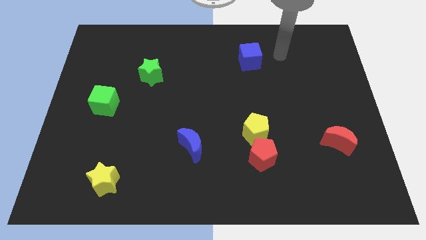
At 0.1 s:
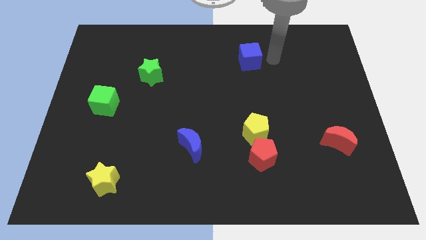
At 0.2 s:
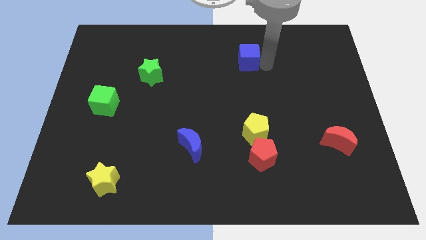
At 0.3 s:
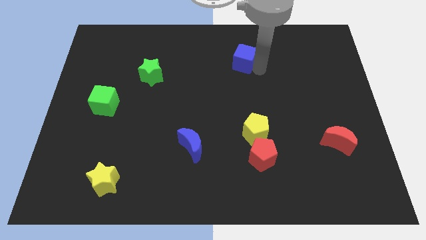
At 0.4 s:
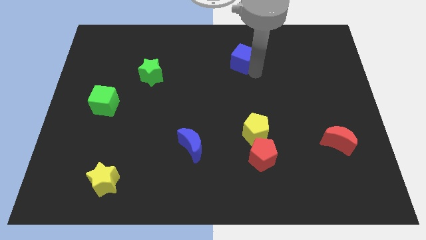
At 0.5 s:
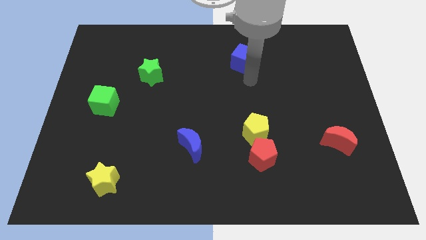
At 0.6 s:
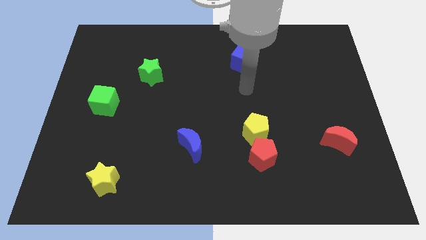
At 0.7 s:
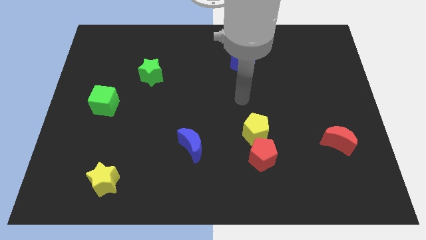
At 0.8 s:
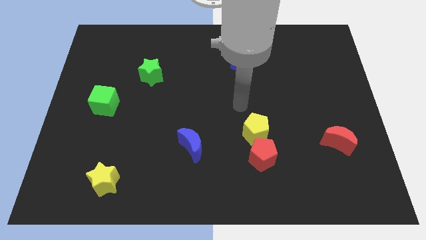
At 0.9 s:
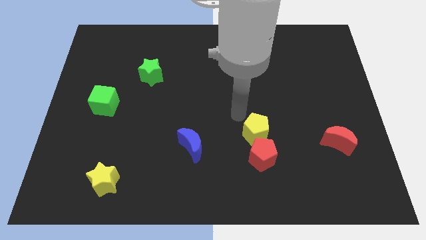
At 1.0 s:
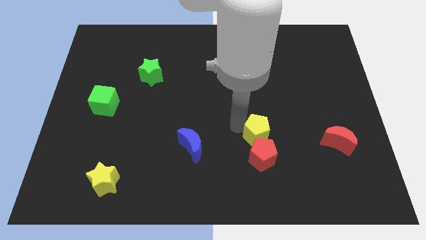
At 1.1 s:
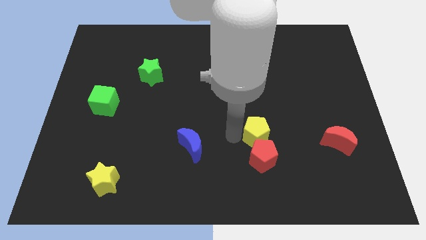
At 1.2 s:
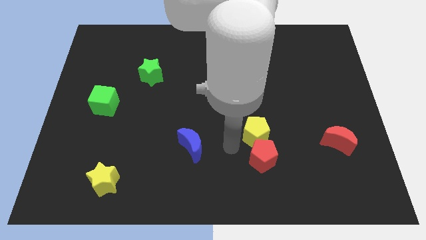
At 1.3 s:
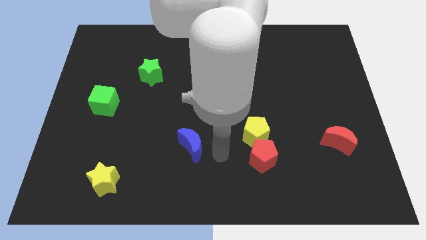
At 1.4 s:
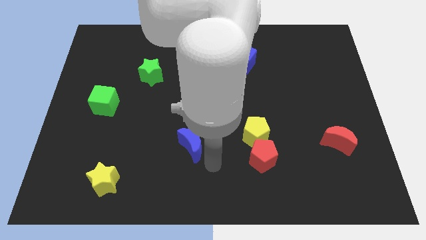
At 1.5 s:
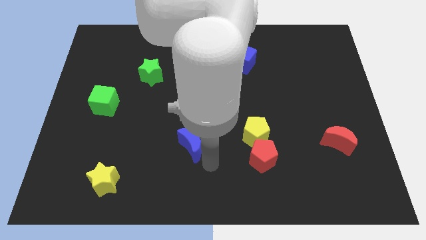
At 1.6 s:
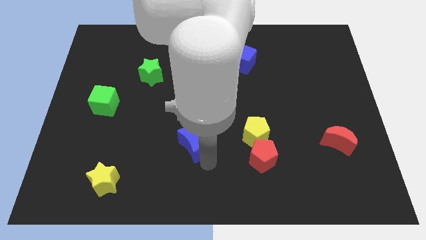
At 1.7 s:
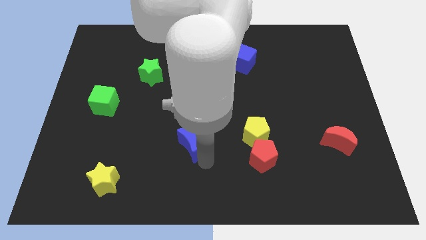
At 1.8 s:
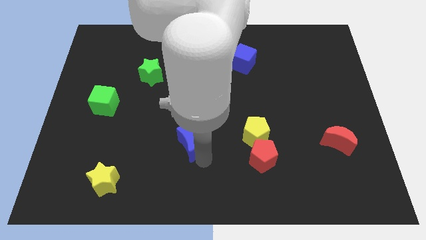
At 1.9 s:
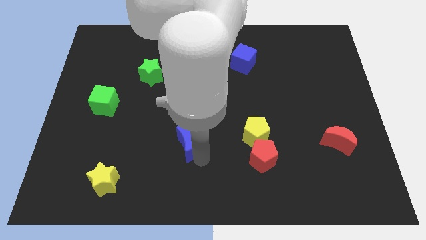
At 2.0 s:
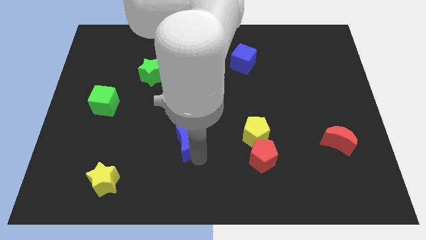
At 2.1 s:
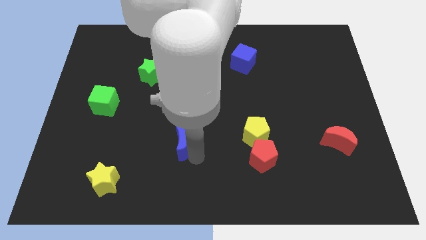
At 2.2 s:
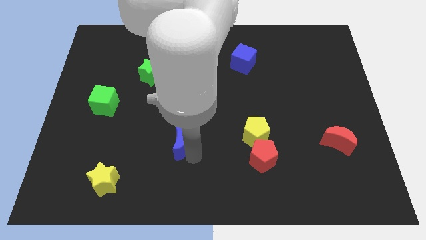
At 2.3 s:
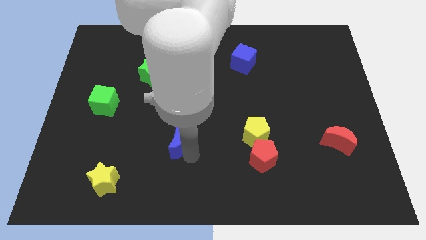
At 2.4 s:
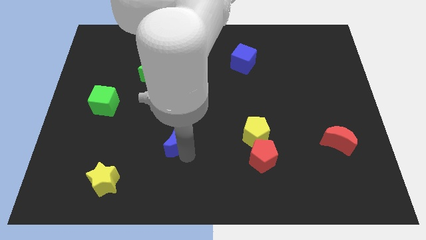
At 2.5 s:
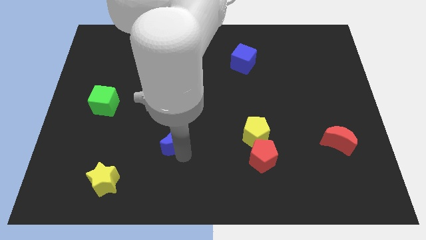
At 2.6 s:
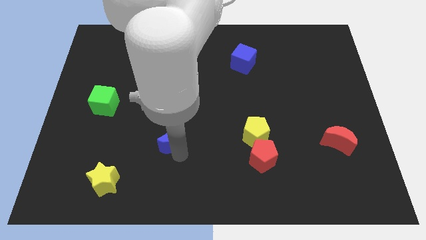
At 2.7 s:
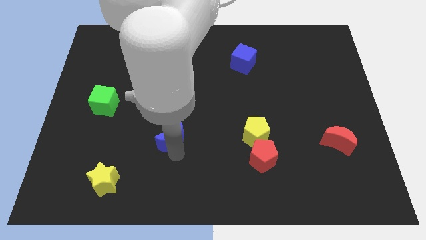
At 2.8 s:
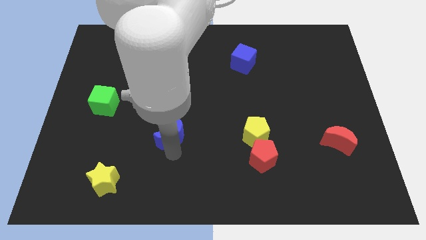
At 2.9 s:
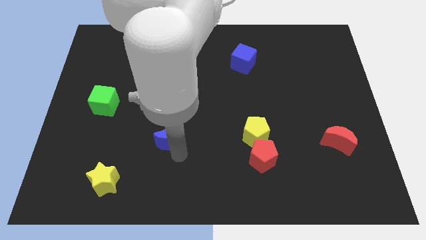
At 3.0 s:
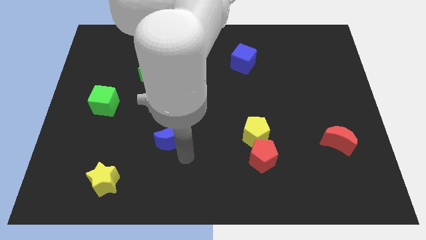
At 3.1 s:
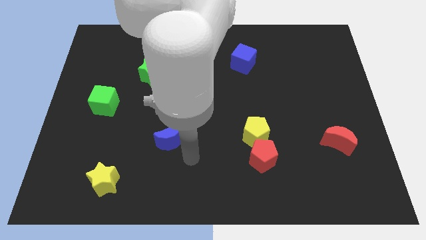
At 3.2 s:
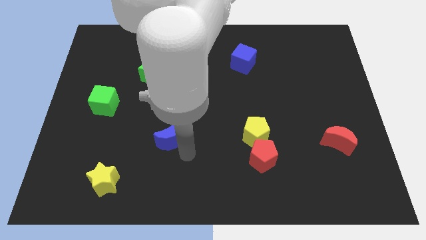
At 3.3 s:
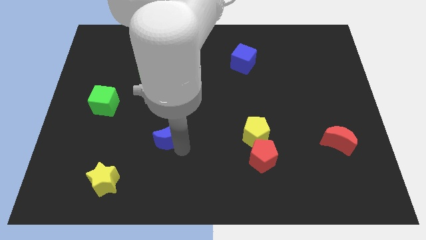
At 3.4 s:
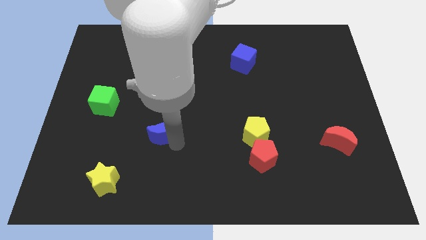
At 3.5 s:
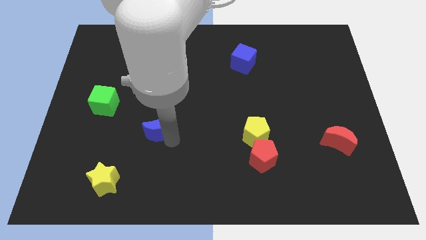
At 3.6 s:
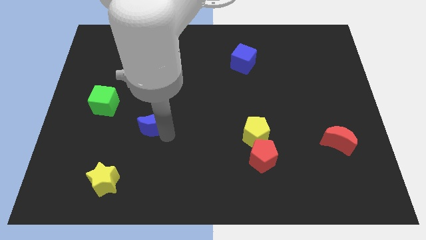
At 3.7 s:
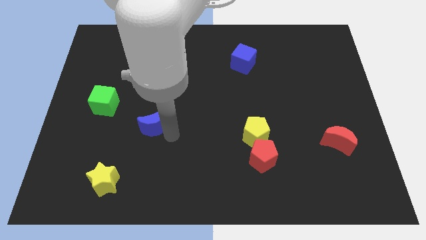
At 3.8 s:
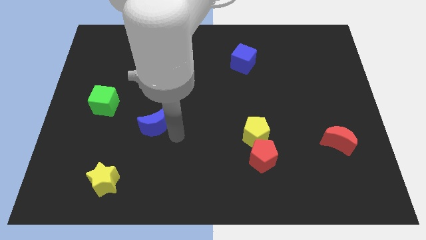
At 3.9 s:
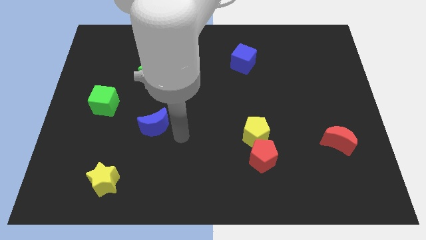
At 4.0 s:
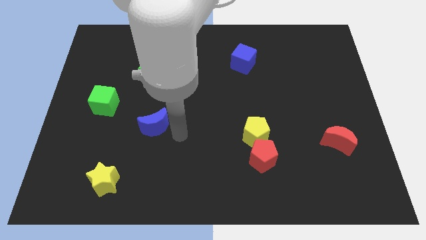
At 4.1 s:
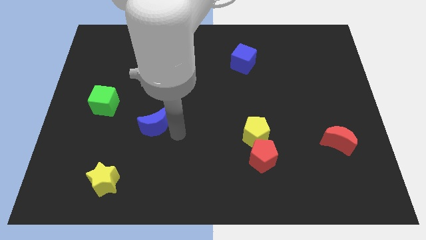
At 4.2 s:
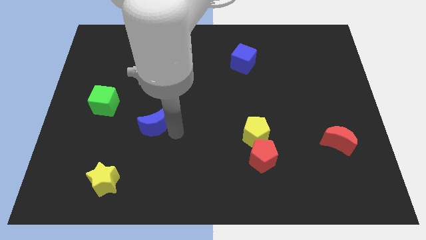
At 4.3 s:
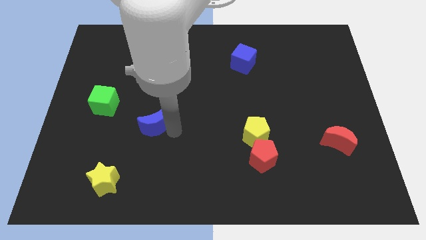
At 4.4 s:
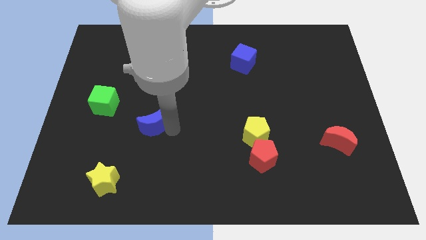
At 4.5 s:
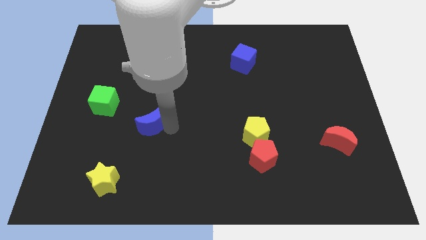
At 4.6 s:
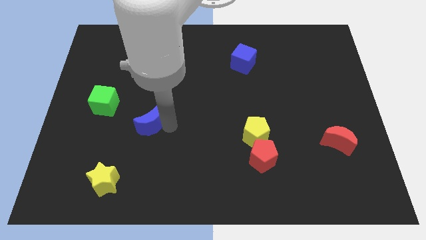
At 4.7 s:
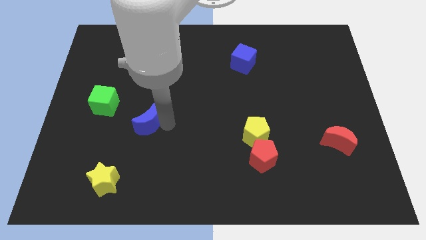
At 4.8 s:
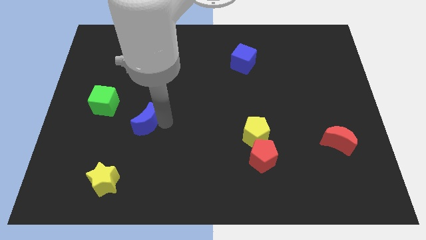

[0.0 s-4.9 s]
move the blue moon to the bottom right of the green cube

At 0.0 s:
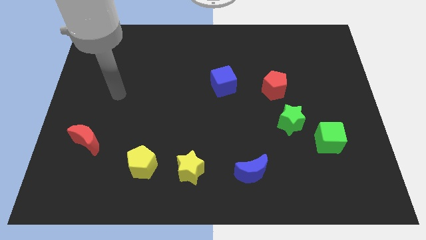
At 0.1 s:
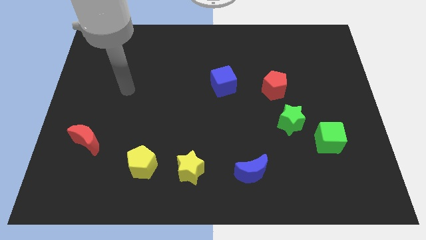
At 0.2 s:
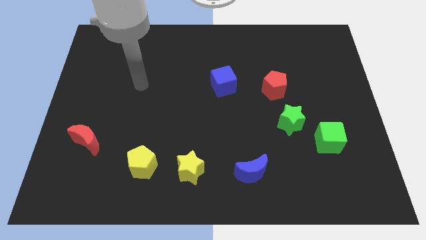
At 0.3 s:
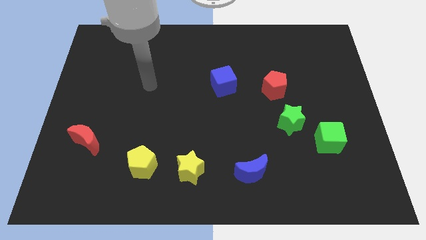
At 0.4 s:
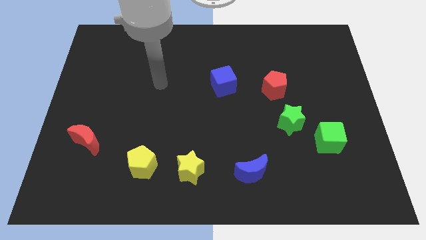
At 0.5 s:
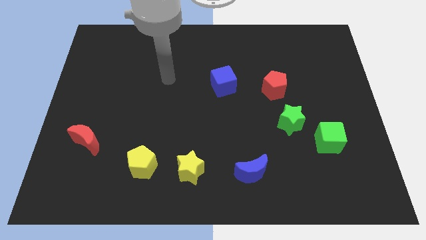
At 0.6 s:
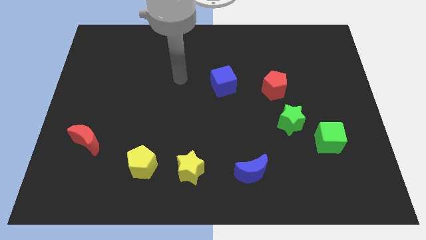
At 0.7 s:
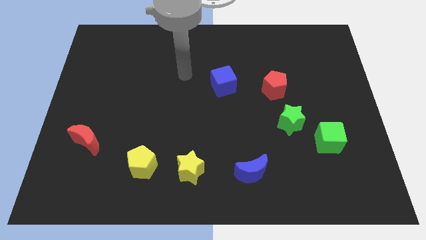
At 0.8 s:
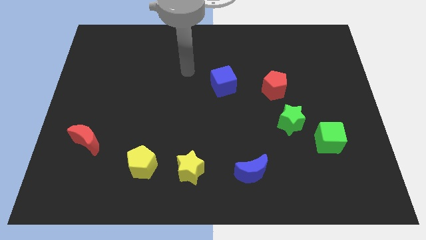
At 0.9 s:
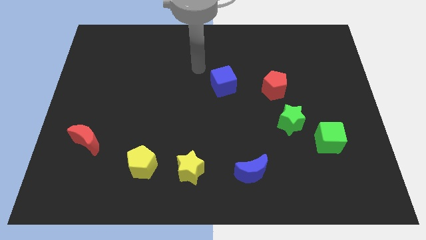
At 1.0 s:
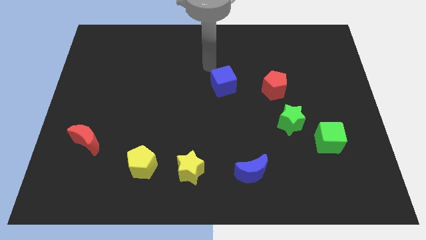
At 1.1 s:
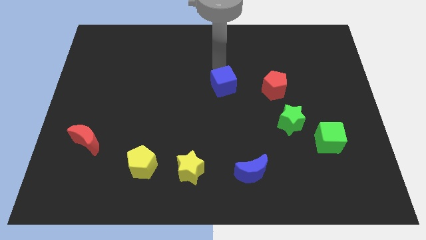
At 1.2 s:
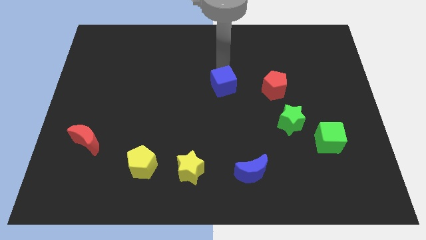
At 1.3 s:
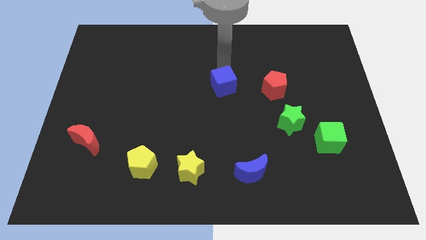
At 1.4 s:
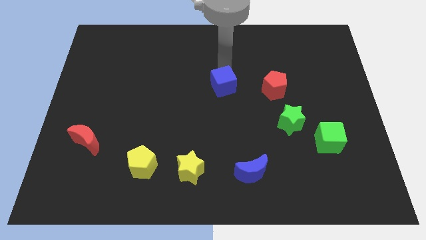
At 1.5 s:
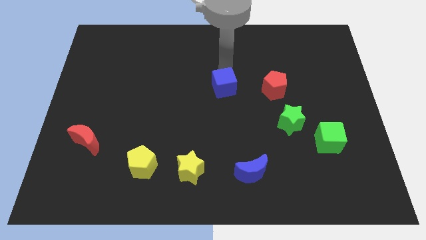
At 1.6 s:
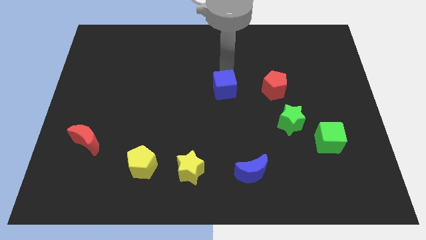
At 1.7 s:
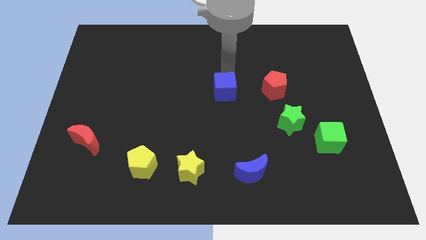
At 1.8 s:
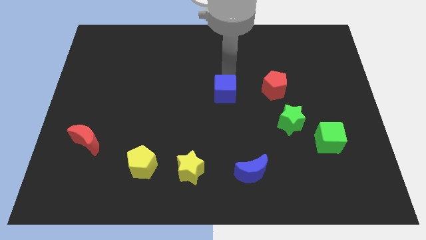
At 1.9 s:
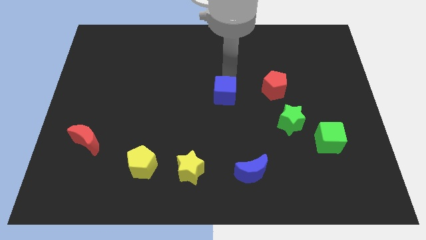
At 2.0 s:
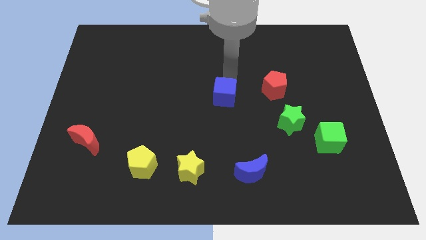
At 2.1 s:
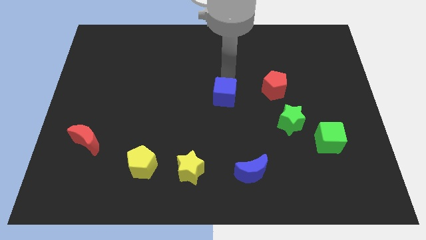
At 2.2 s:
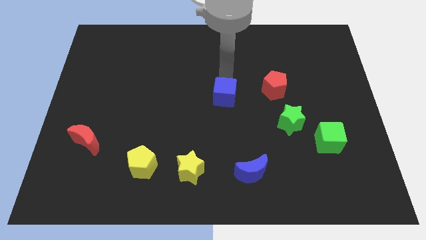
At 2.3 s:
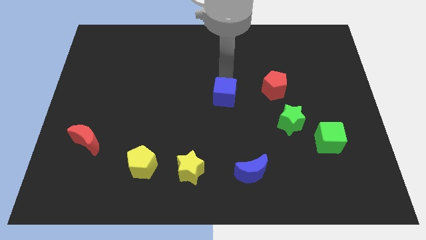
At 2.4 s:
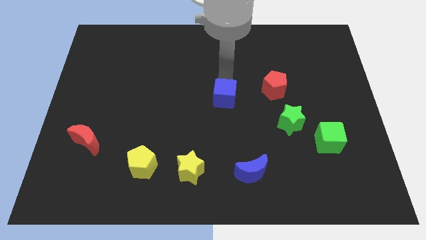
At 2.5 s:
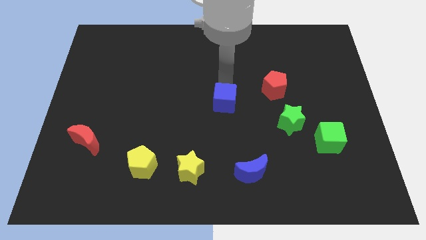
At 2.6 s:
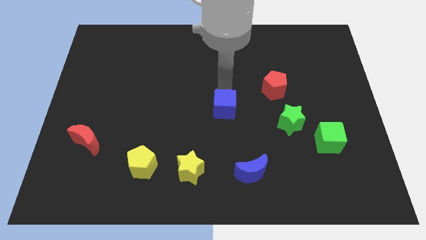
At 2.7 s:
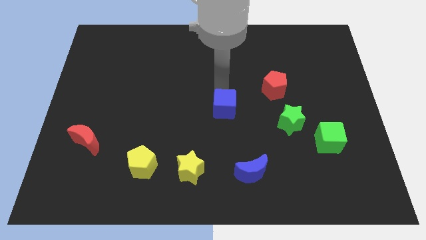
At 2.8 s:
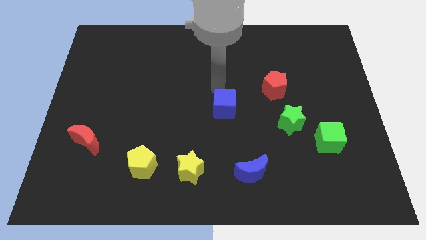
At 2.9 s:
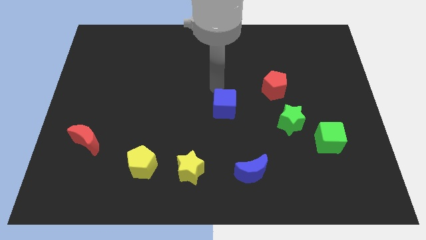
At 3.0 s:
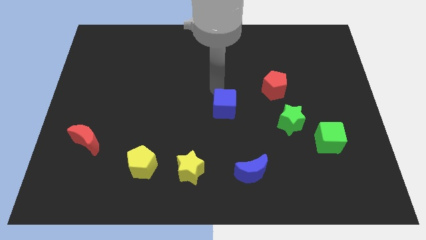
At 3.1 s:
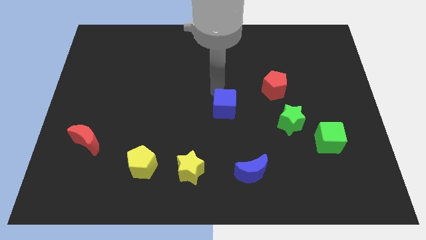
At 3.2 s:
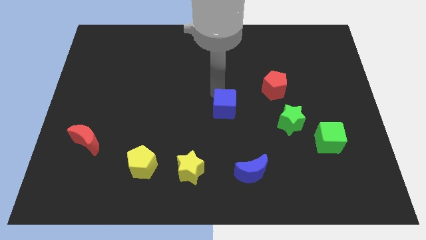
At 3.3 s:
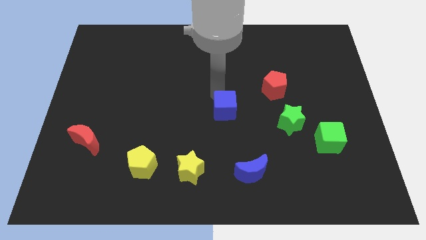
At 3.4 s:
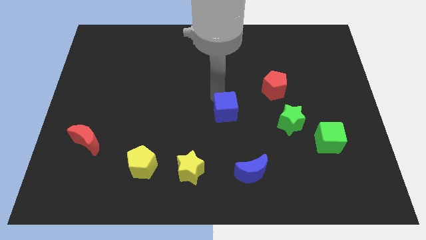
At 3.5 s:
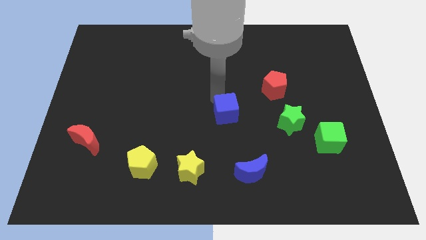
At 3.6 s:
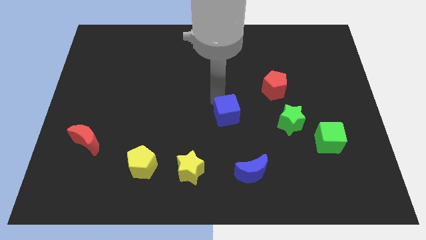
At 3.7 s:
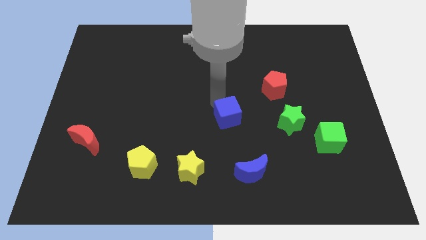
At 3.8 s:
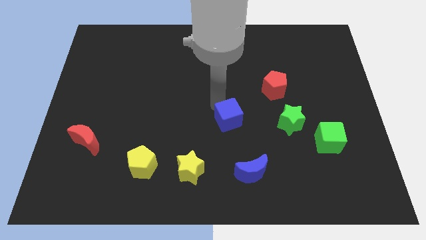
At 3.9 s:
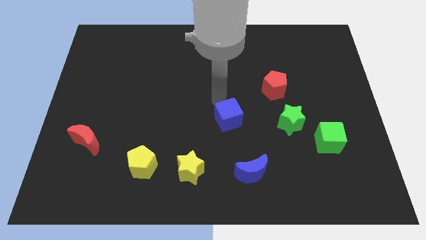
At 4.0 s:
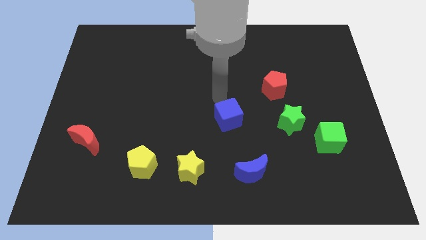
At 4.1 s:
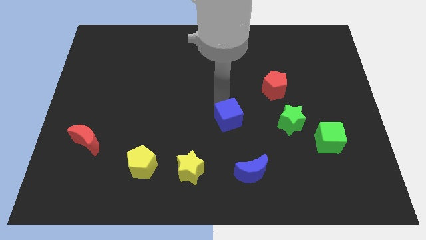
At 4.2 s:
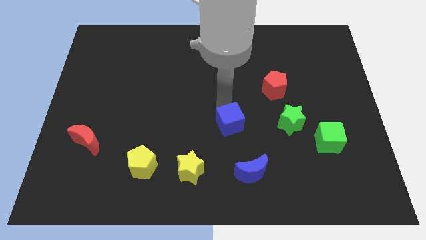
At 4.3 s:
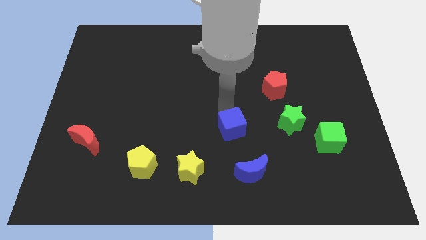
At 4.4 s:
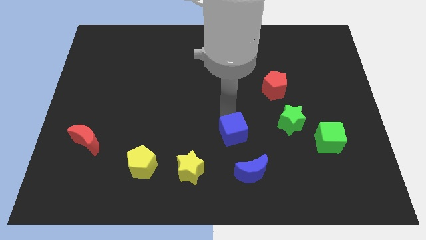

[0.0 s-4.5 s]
push the blue cube to the top left of the blue moon
